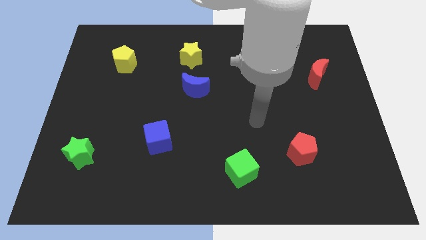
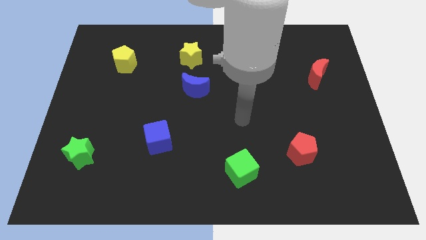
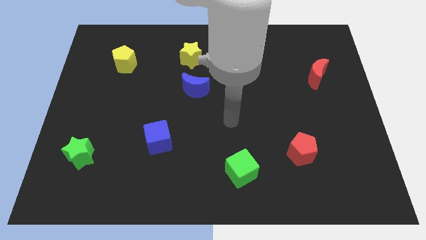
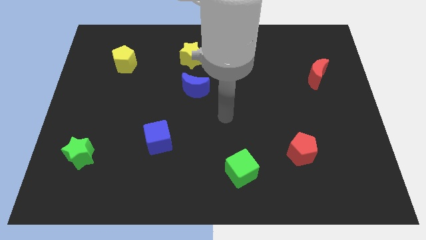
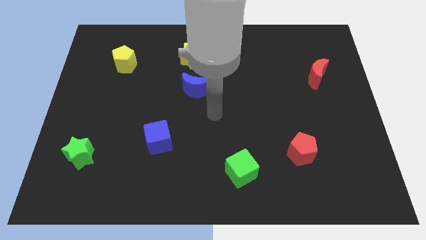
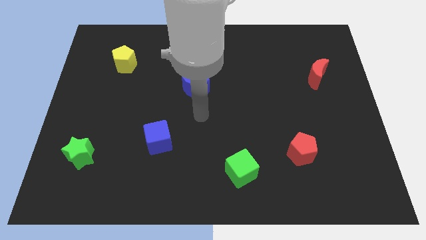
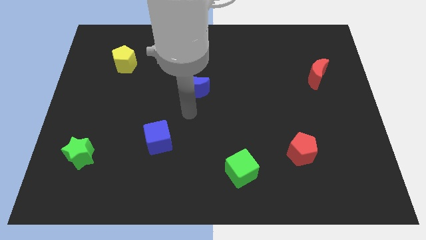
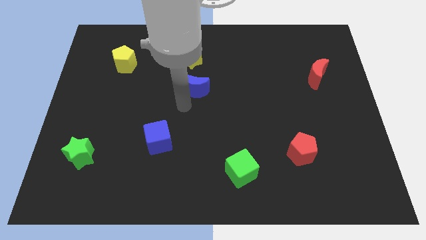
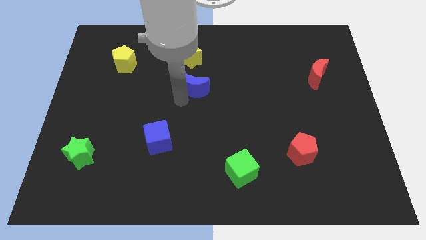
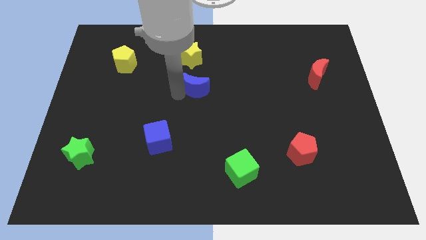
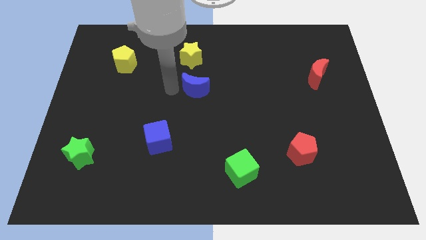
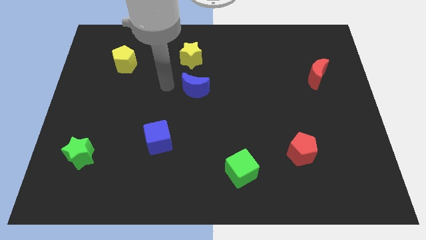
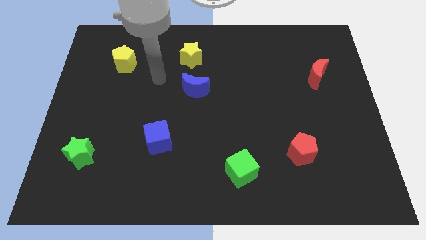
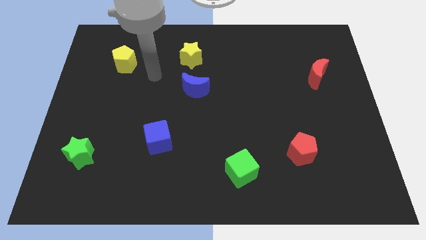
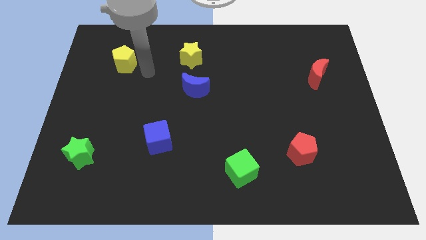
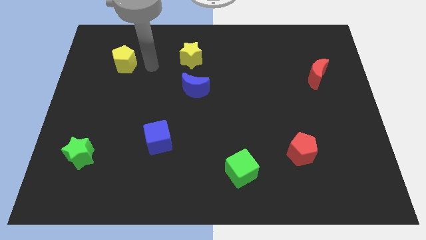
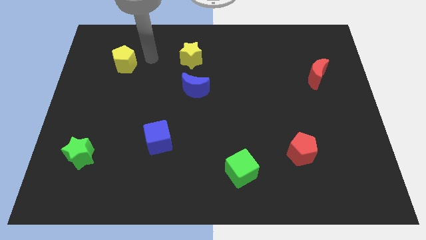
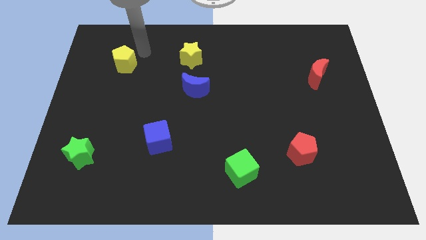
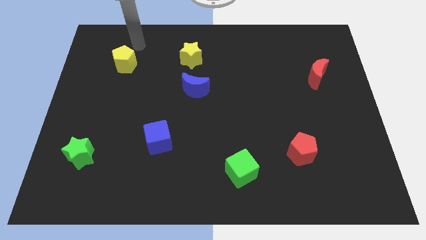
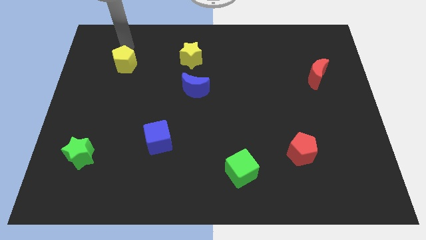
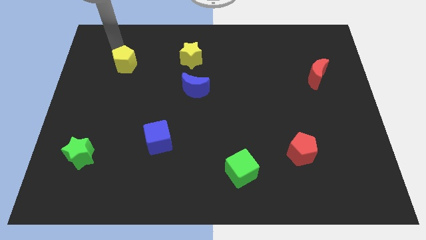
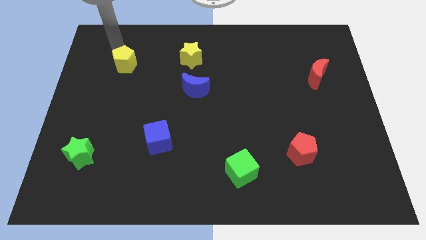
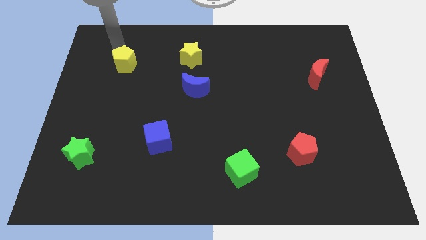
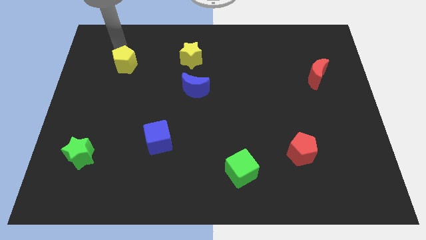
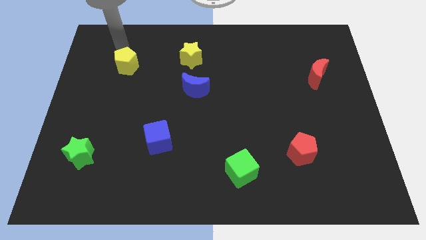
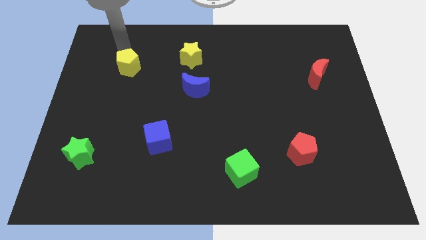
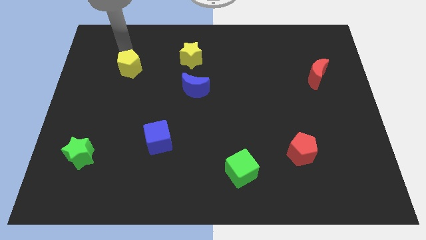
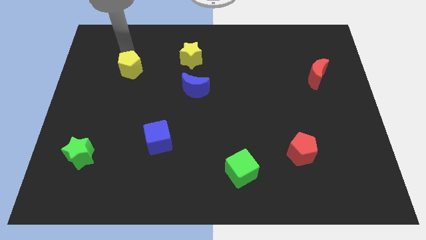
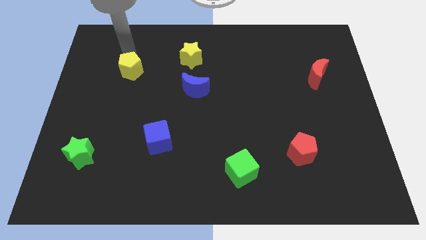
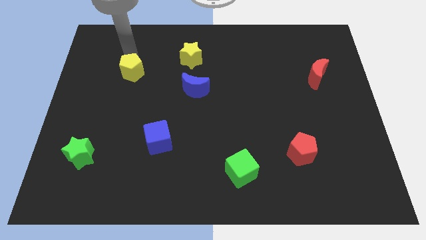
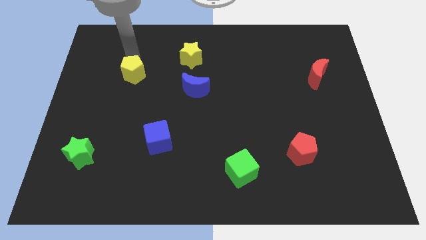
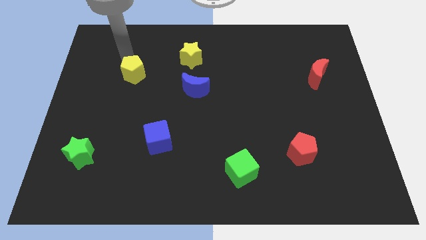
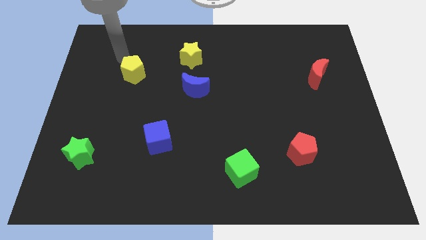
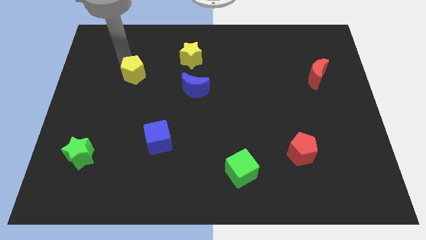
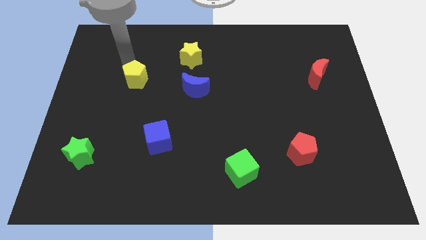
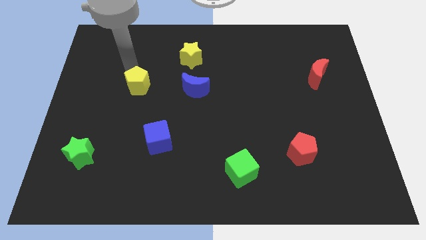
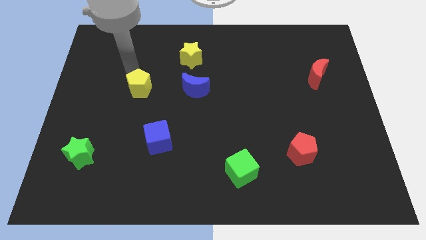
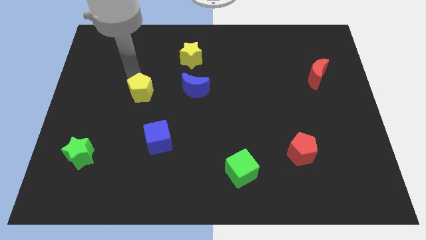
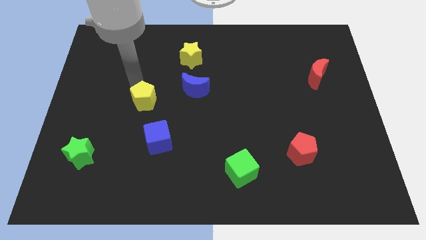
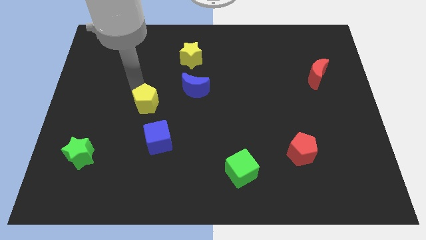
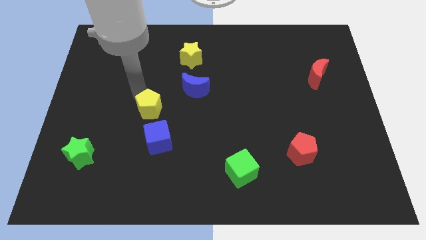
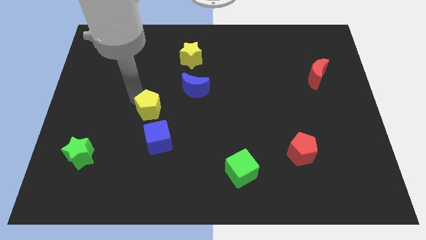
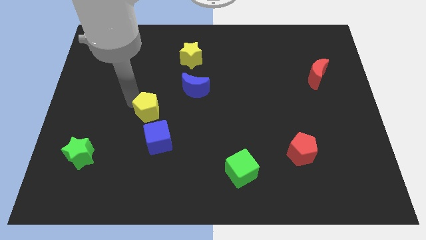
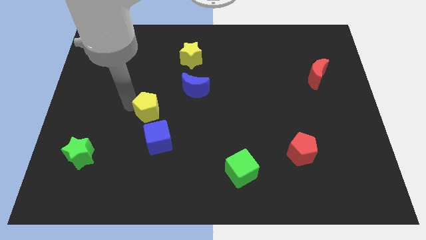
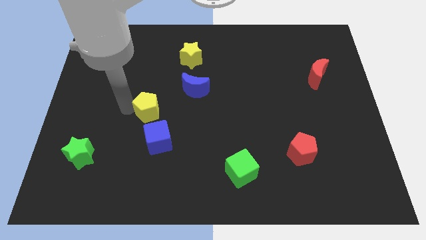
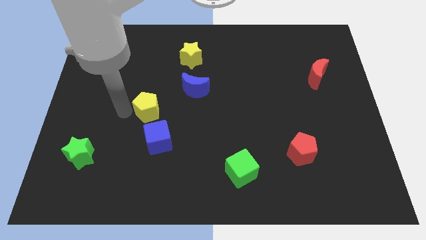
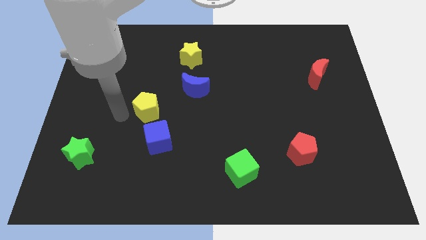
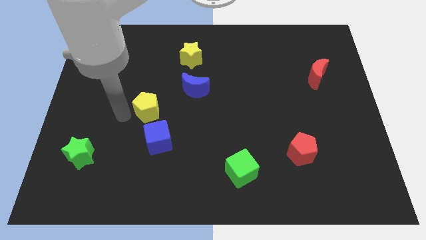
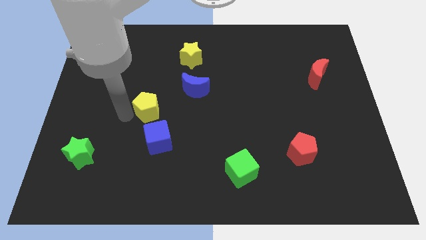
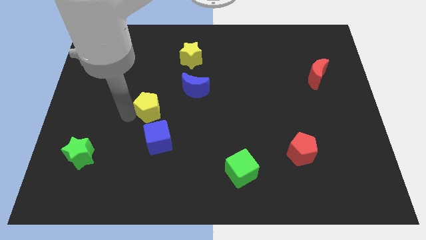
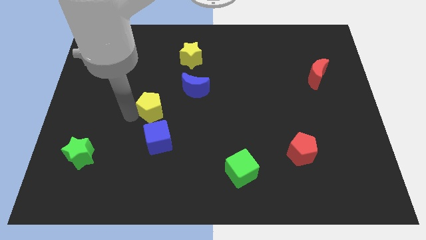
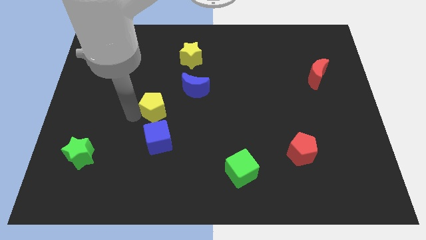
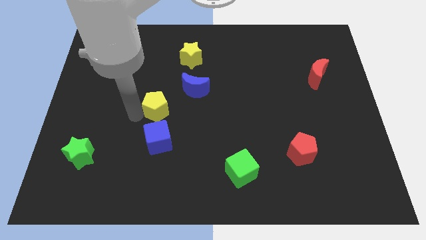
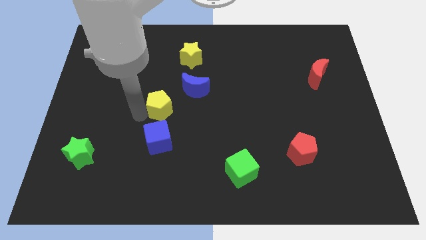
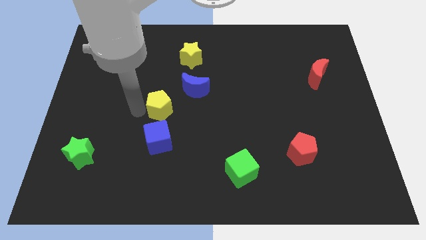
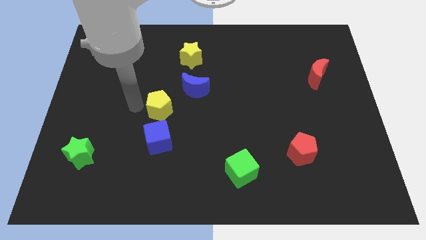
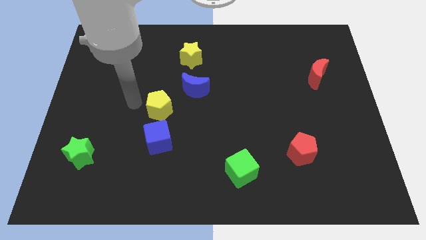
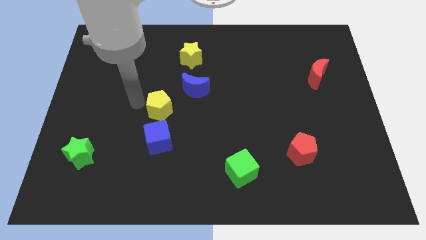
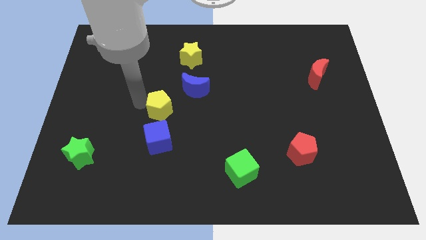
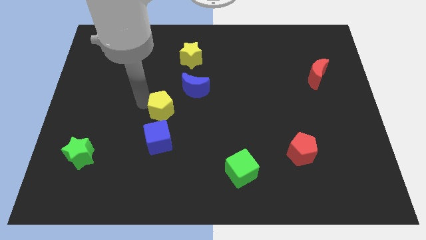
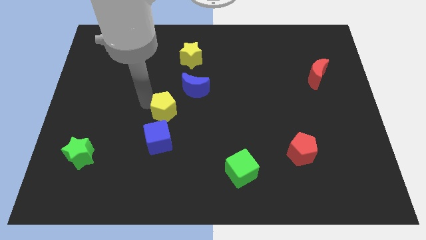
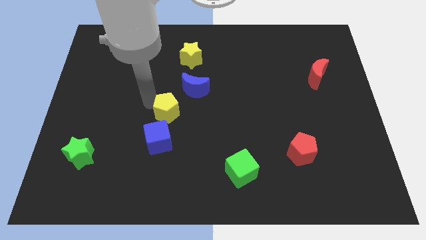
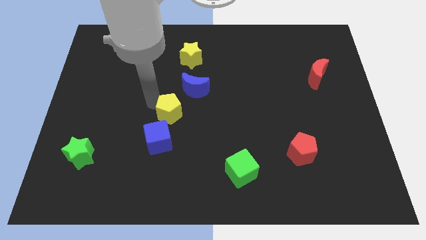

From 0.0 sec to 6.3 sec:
push the yellow pentagon down and right

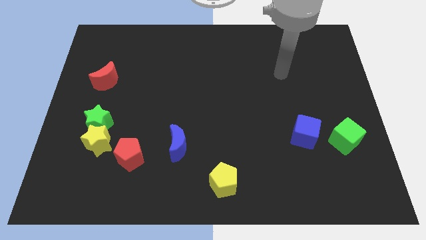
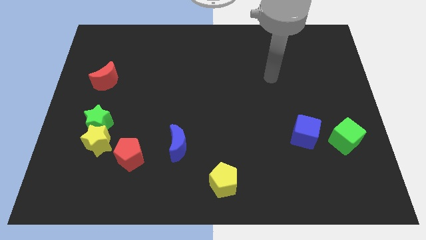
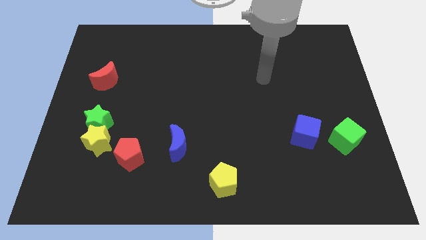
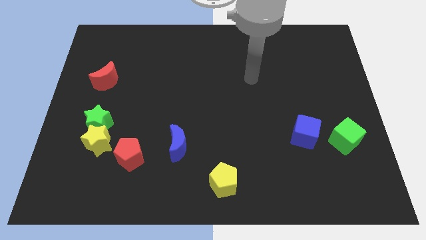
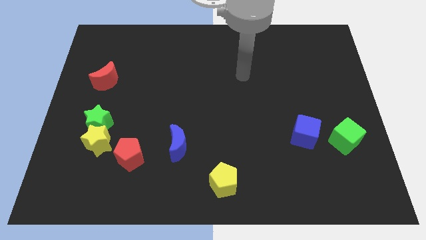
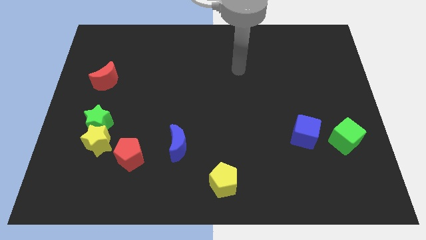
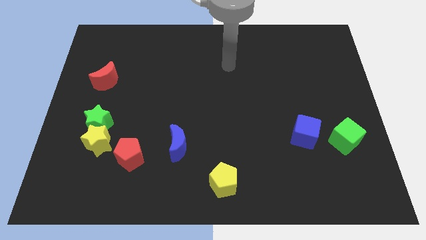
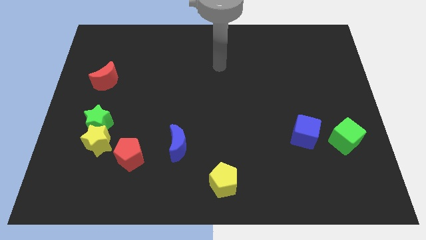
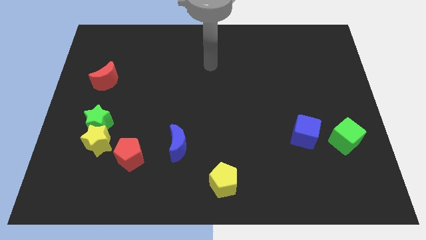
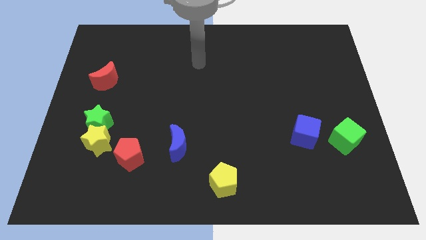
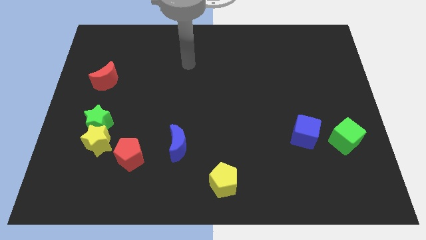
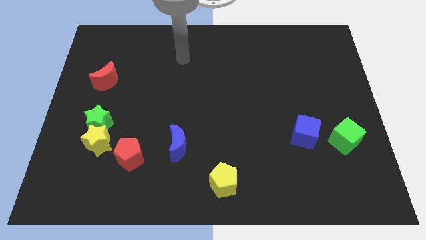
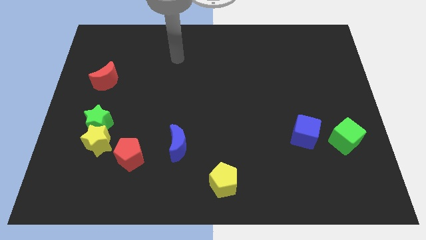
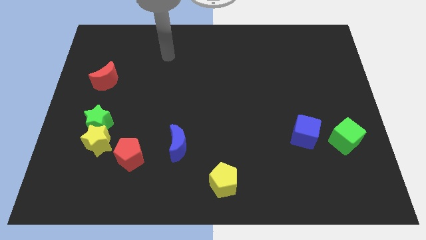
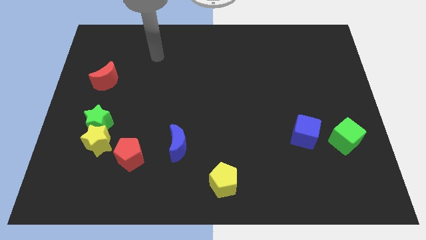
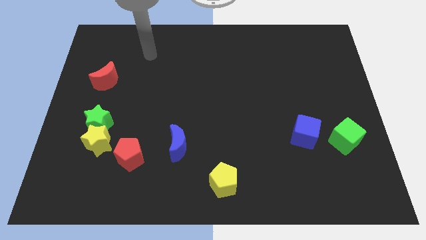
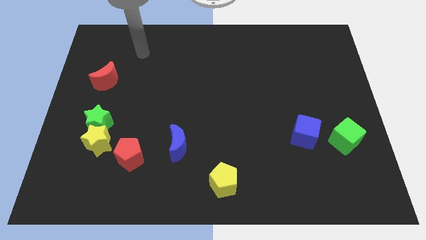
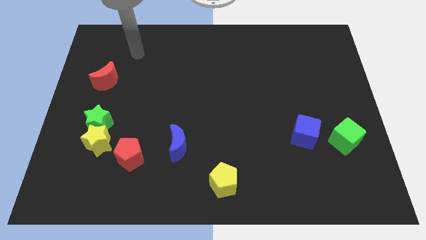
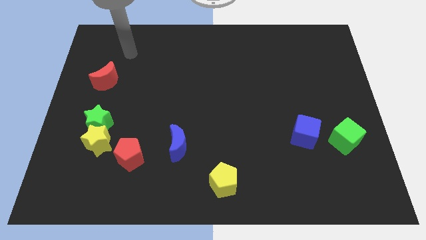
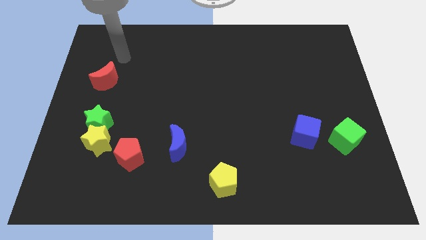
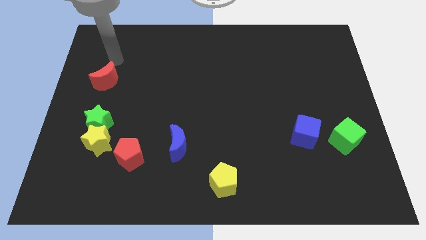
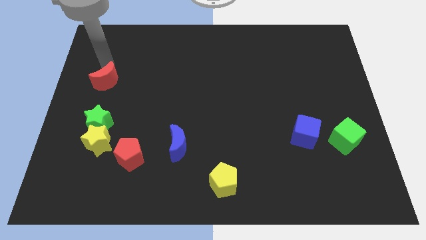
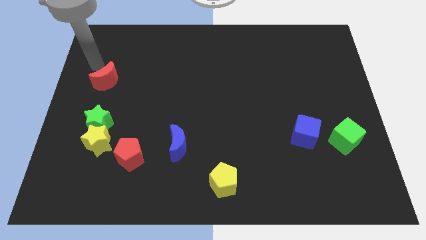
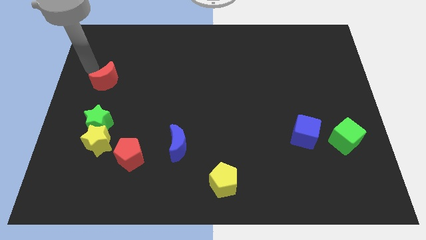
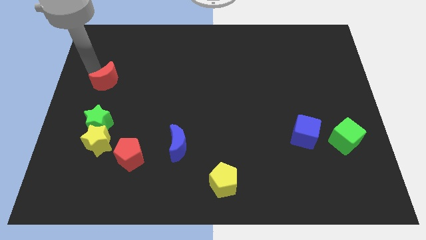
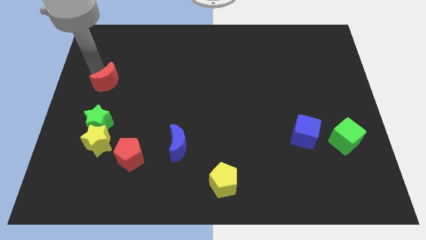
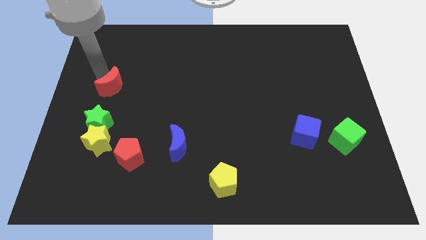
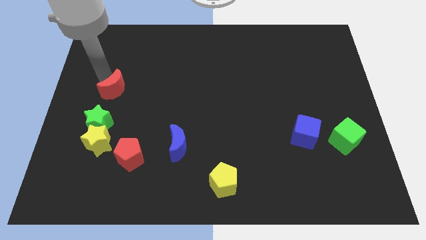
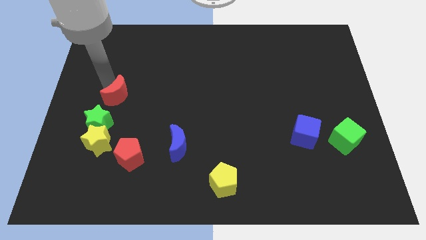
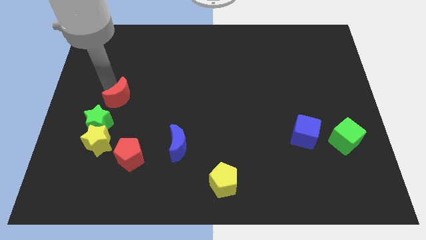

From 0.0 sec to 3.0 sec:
slide the red moon downwards and to the right somewhat
